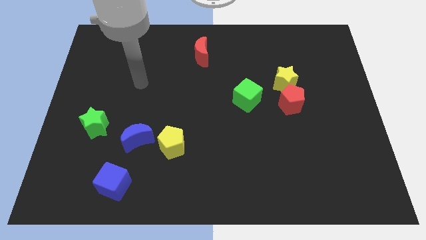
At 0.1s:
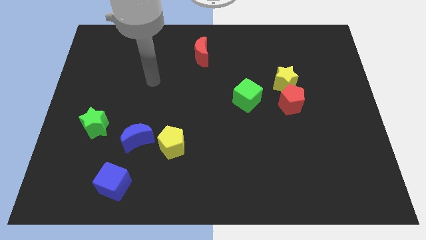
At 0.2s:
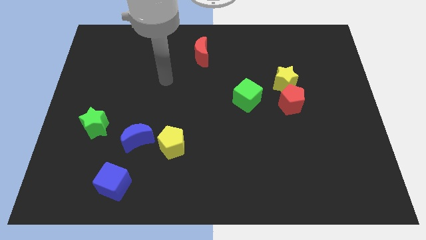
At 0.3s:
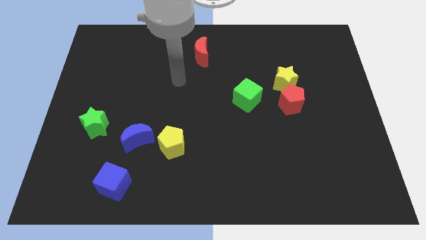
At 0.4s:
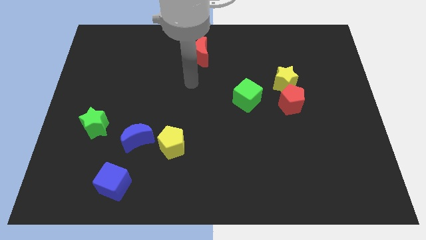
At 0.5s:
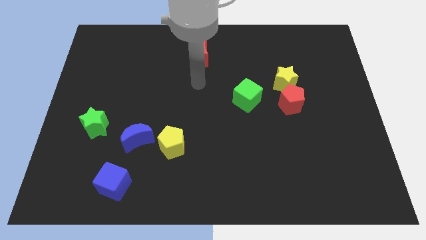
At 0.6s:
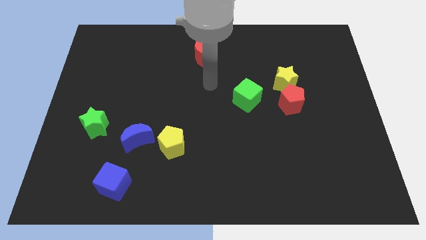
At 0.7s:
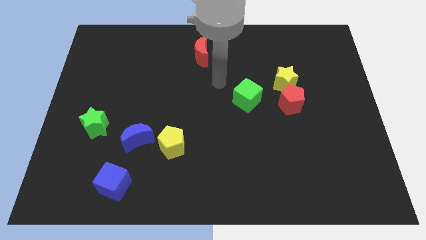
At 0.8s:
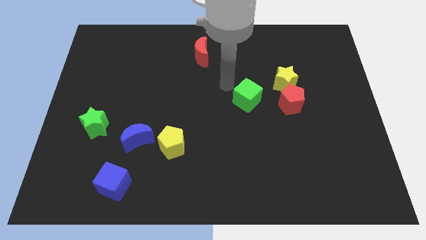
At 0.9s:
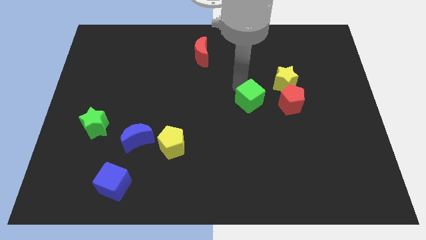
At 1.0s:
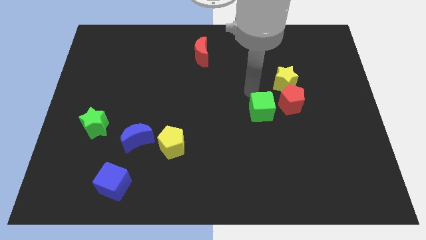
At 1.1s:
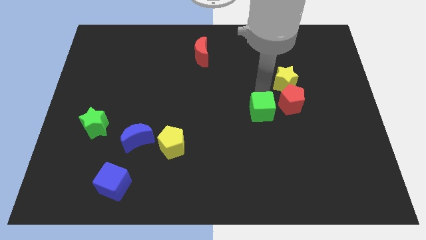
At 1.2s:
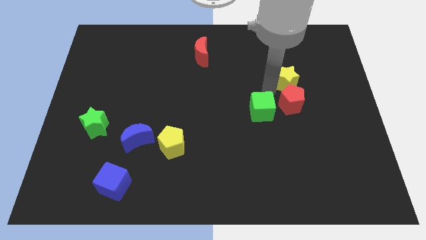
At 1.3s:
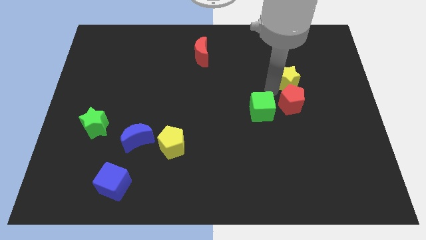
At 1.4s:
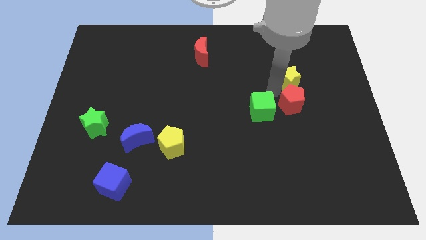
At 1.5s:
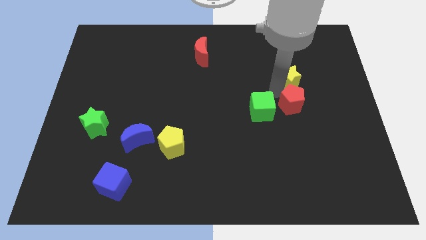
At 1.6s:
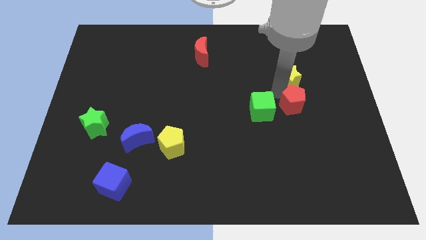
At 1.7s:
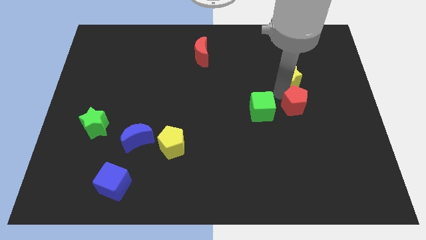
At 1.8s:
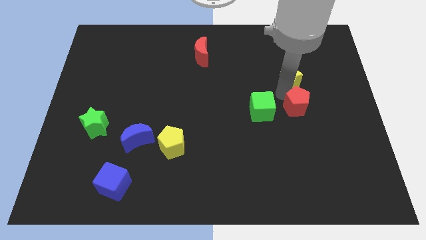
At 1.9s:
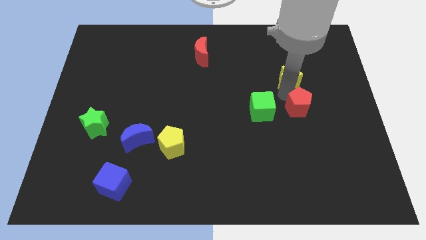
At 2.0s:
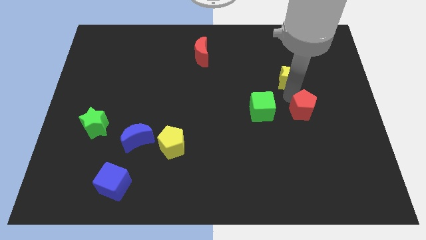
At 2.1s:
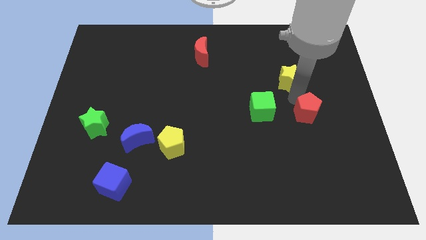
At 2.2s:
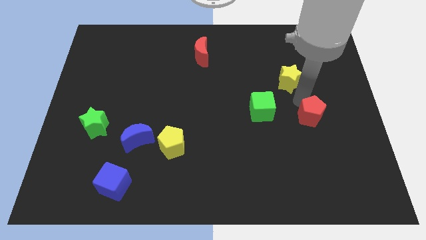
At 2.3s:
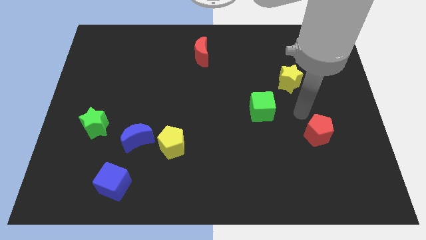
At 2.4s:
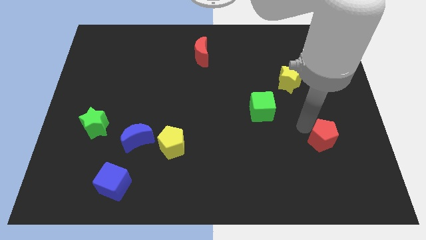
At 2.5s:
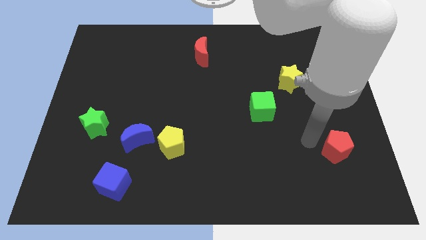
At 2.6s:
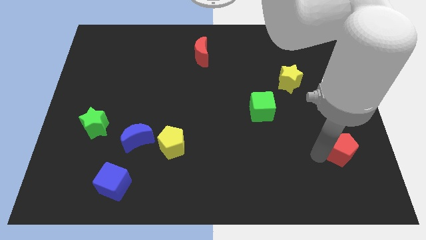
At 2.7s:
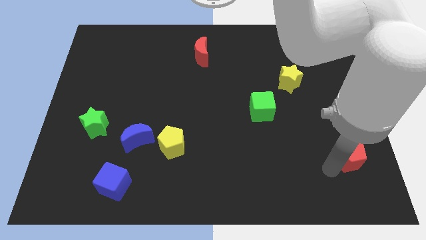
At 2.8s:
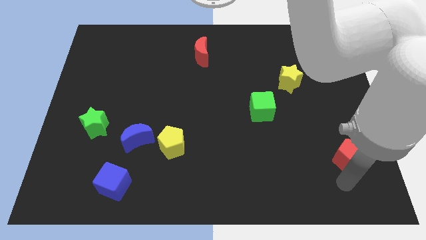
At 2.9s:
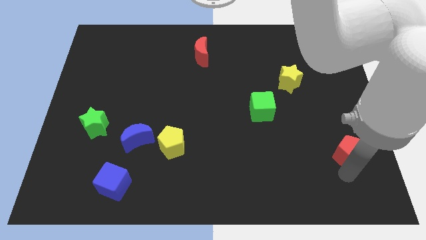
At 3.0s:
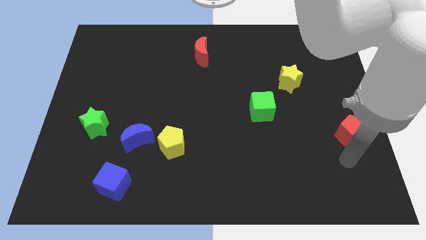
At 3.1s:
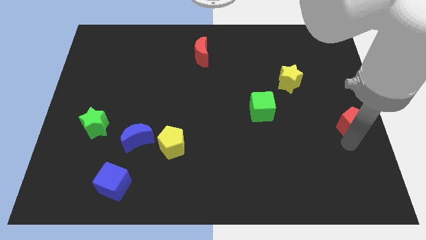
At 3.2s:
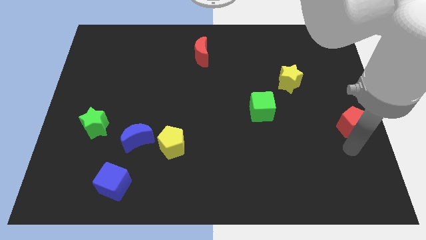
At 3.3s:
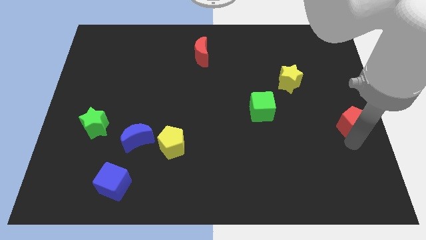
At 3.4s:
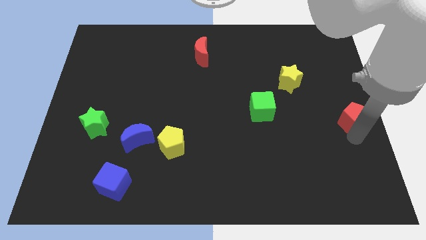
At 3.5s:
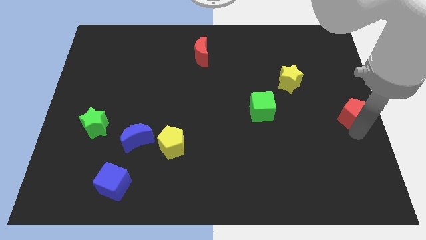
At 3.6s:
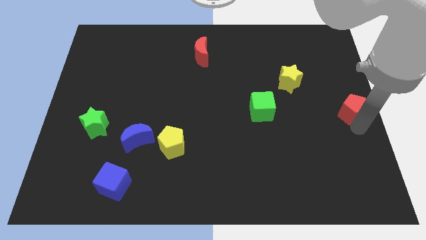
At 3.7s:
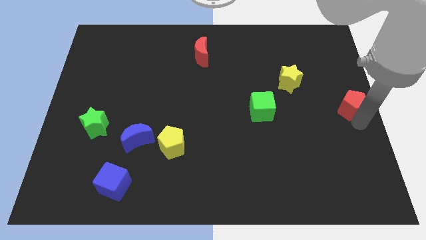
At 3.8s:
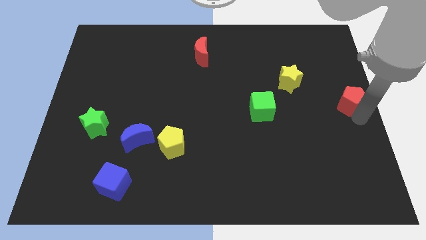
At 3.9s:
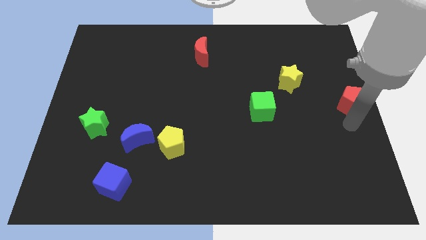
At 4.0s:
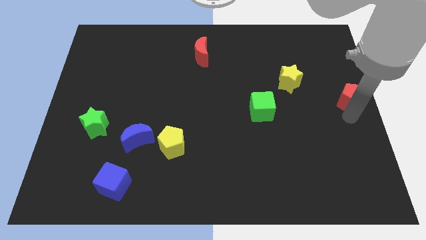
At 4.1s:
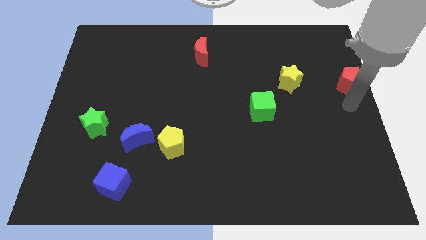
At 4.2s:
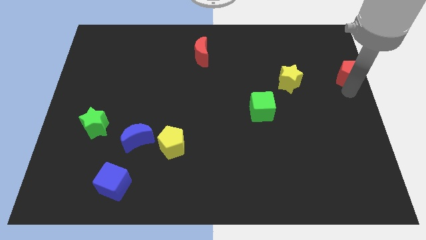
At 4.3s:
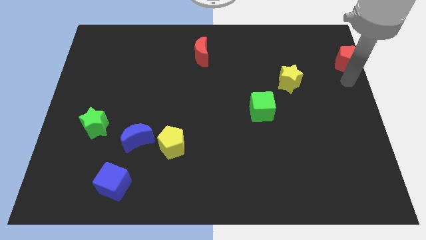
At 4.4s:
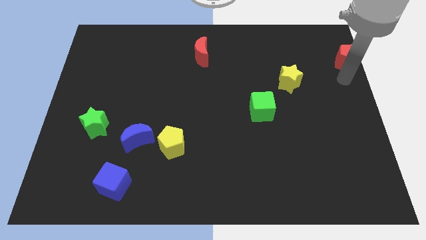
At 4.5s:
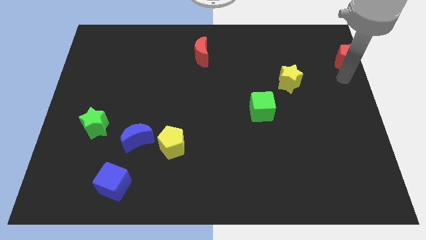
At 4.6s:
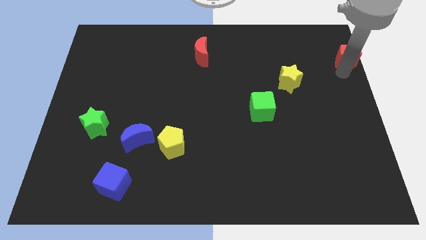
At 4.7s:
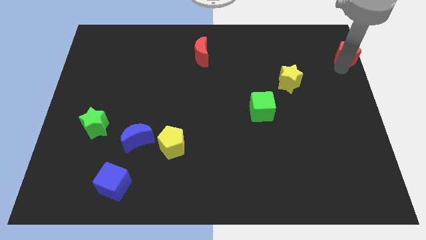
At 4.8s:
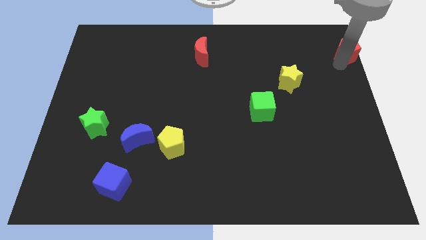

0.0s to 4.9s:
put the red pentagon to the top right of the board

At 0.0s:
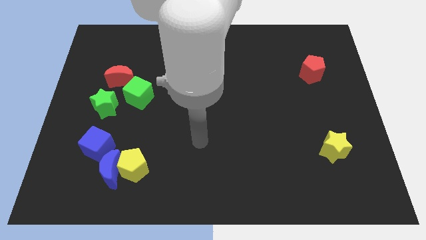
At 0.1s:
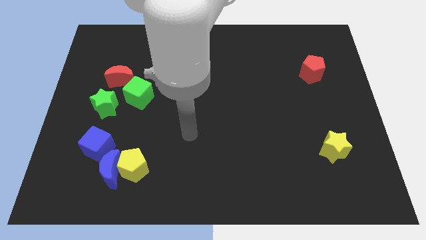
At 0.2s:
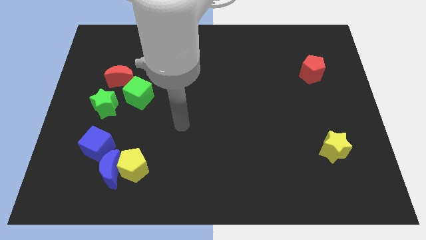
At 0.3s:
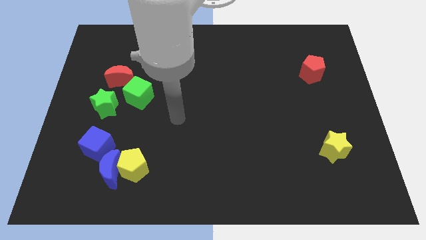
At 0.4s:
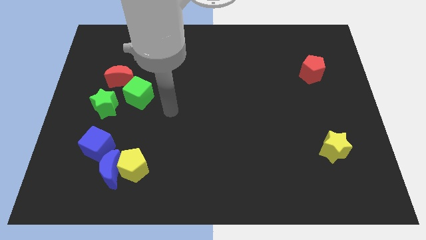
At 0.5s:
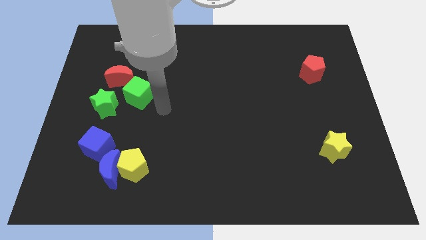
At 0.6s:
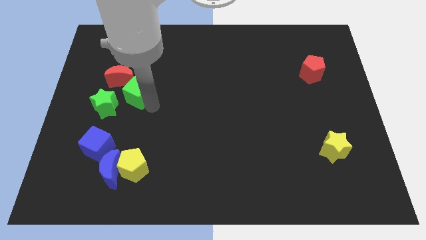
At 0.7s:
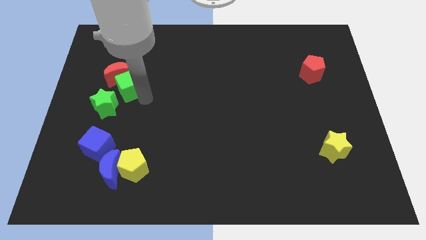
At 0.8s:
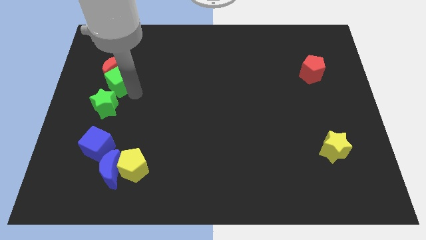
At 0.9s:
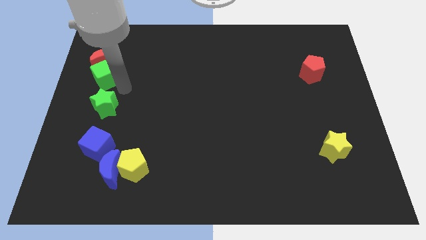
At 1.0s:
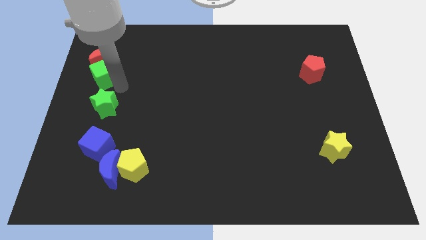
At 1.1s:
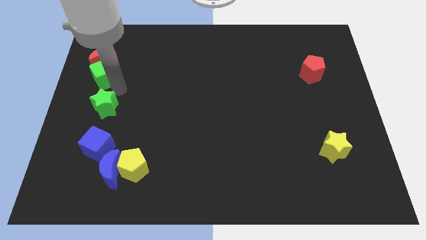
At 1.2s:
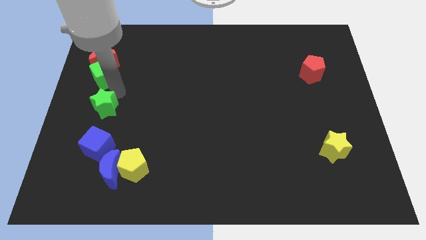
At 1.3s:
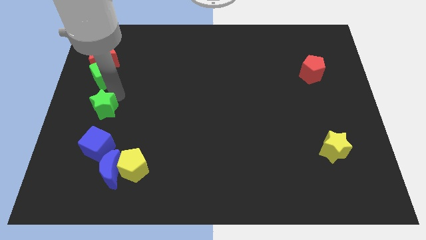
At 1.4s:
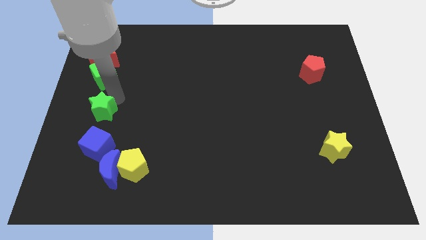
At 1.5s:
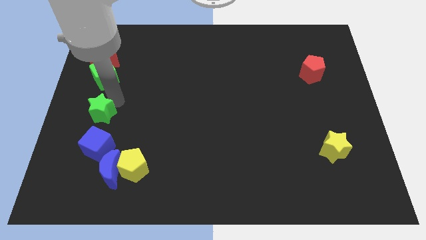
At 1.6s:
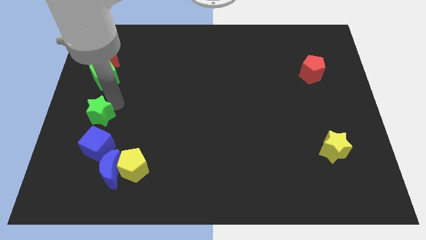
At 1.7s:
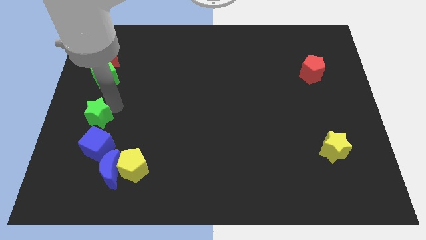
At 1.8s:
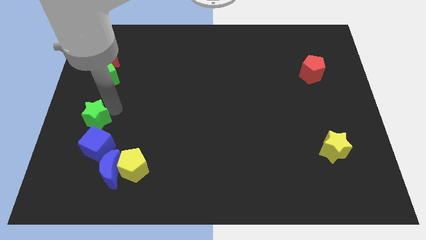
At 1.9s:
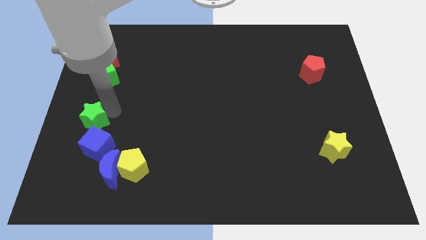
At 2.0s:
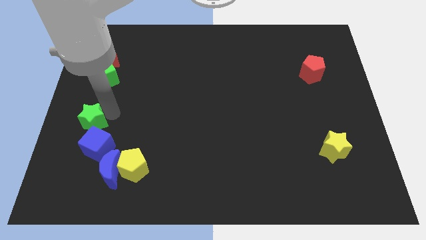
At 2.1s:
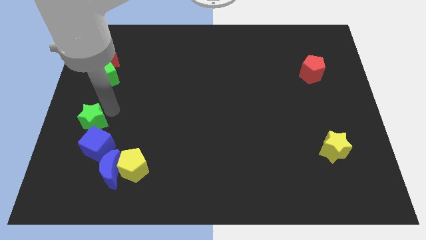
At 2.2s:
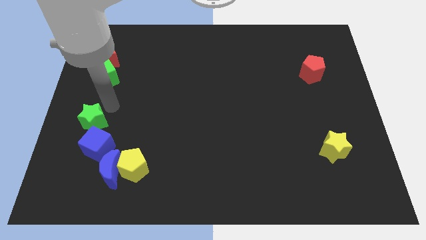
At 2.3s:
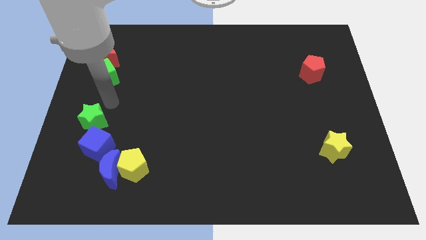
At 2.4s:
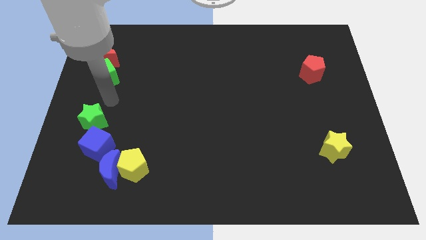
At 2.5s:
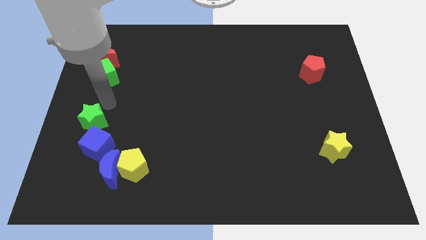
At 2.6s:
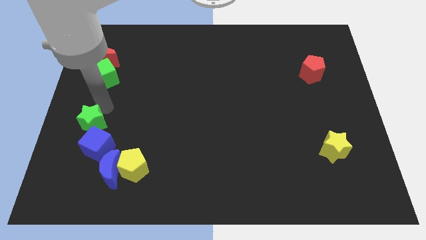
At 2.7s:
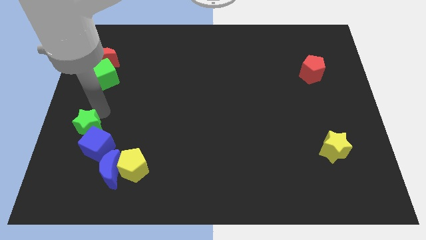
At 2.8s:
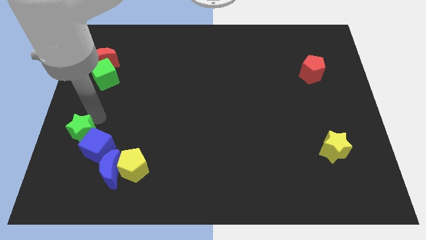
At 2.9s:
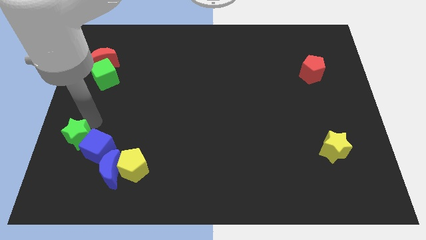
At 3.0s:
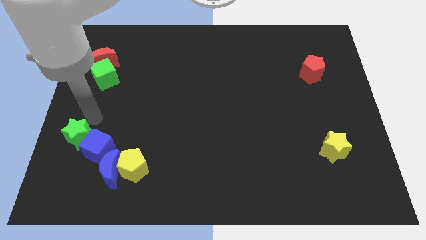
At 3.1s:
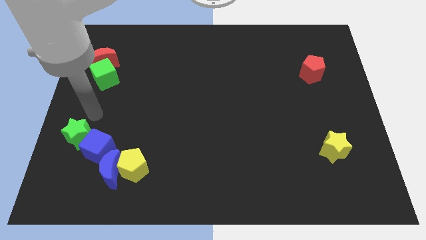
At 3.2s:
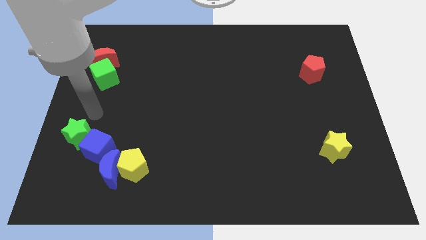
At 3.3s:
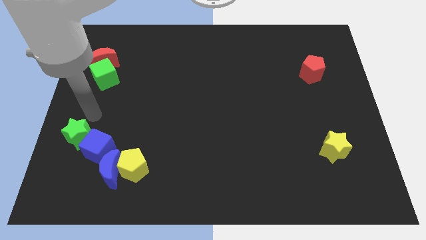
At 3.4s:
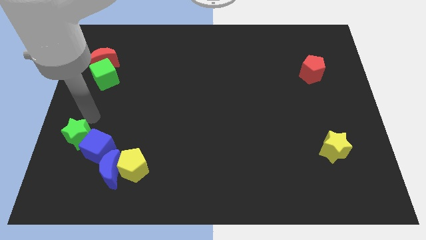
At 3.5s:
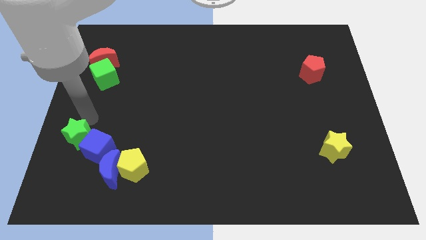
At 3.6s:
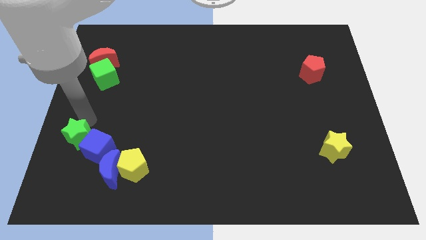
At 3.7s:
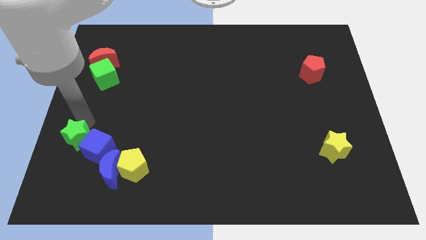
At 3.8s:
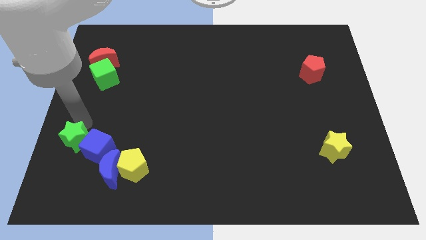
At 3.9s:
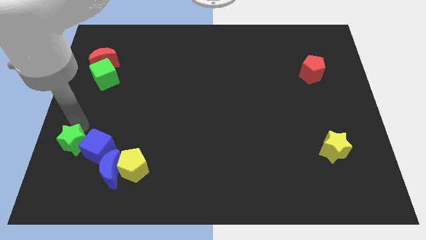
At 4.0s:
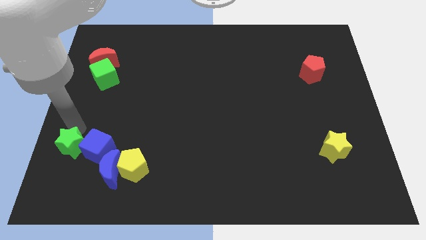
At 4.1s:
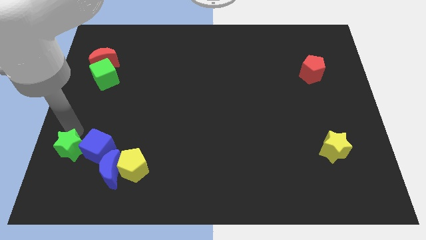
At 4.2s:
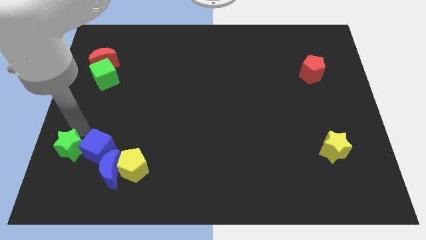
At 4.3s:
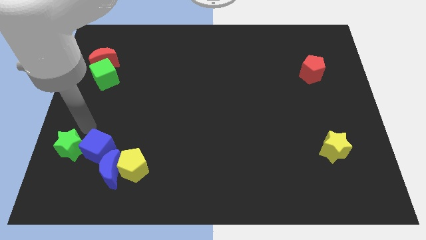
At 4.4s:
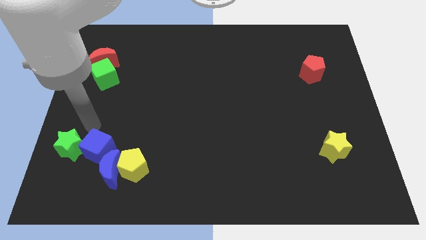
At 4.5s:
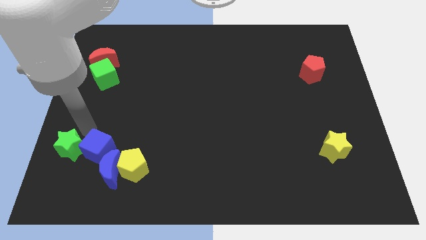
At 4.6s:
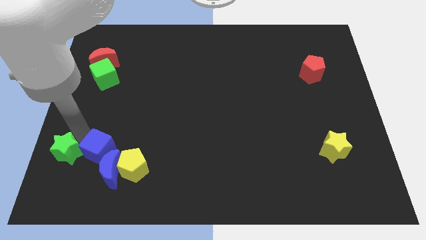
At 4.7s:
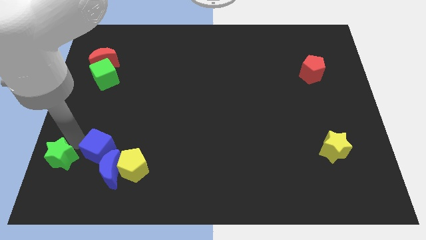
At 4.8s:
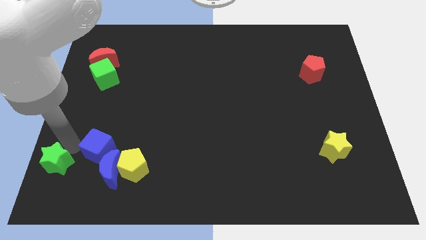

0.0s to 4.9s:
push the green star to the bottom left of the board
